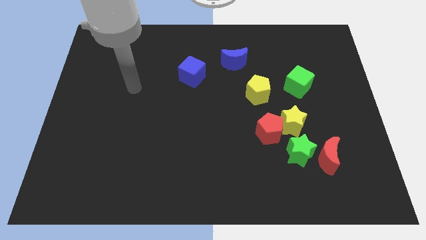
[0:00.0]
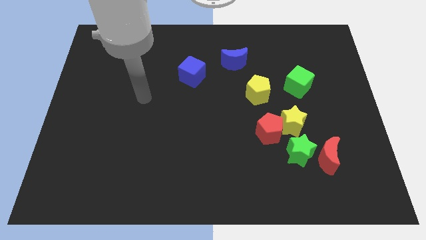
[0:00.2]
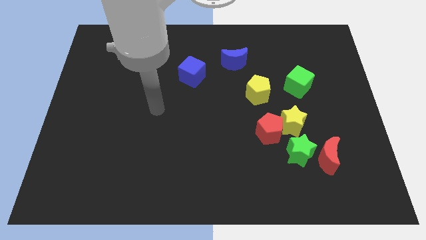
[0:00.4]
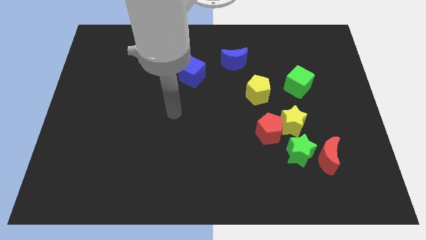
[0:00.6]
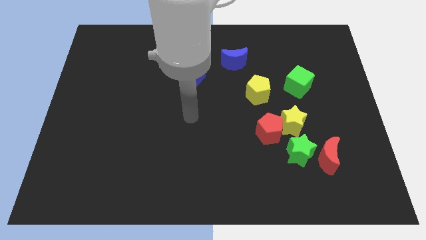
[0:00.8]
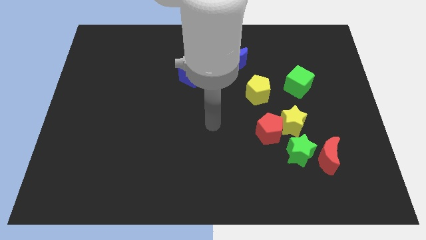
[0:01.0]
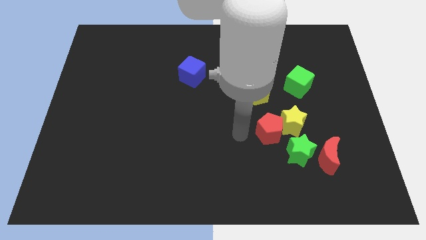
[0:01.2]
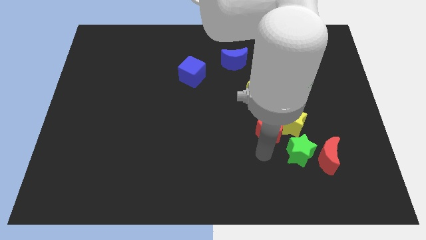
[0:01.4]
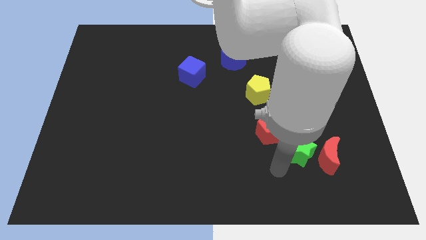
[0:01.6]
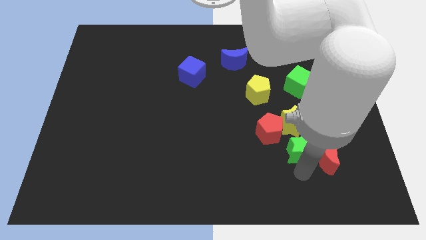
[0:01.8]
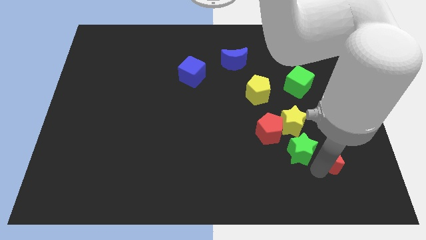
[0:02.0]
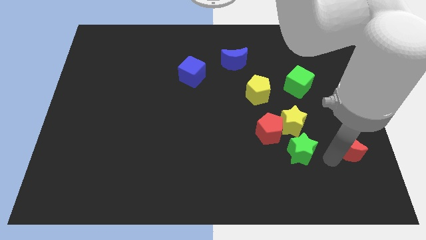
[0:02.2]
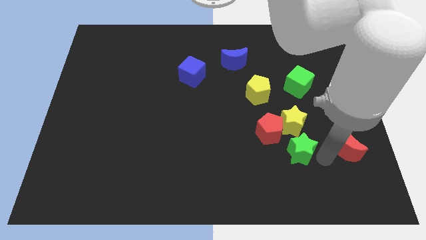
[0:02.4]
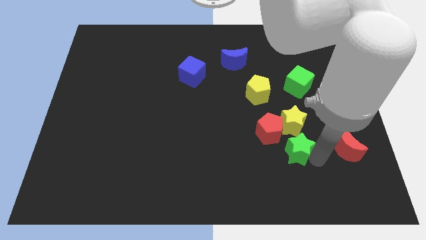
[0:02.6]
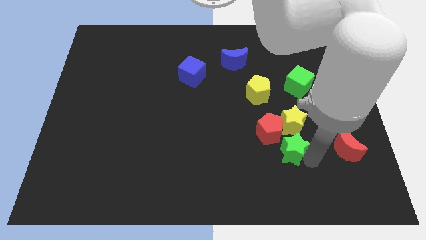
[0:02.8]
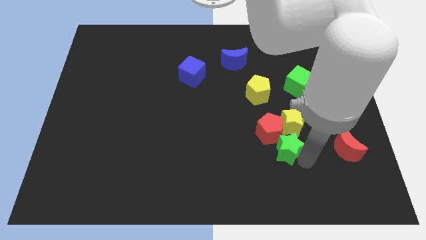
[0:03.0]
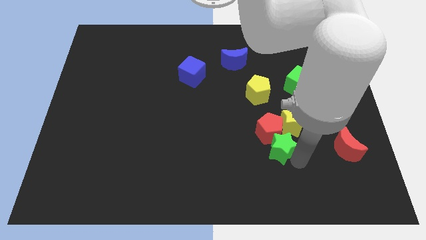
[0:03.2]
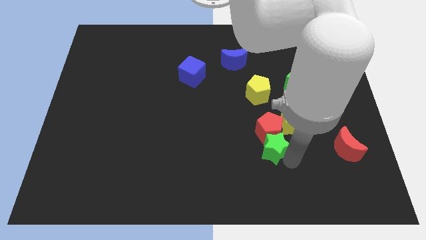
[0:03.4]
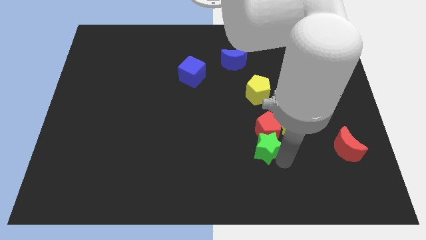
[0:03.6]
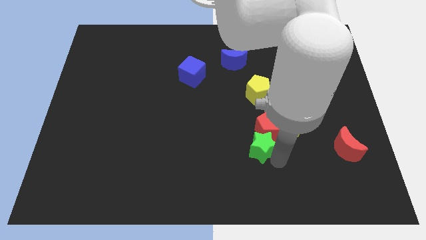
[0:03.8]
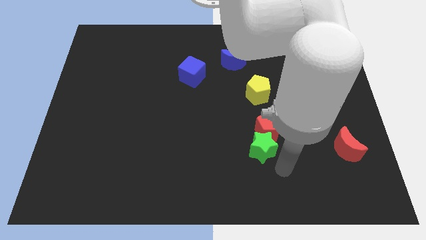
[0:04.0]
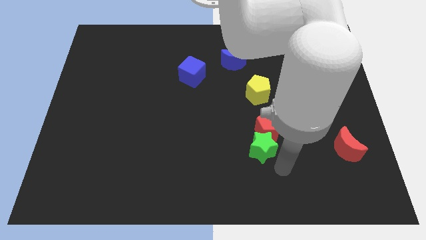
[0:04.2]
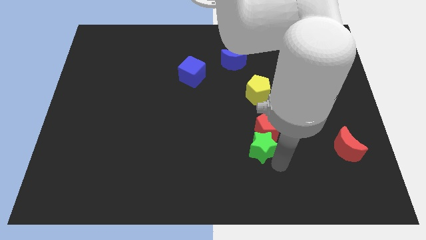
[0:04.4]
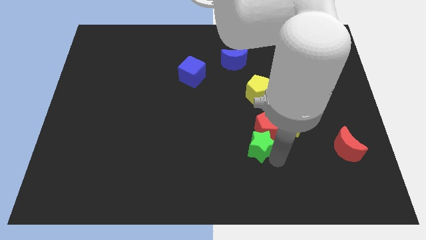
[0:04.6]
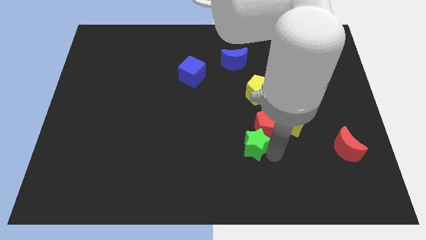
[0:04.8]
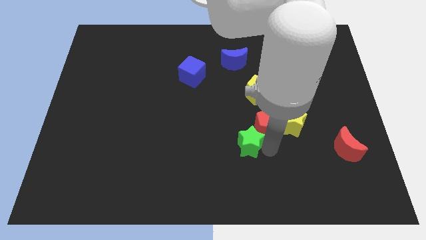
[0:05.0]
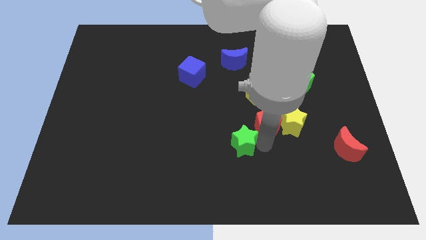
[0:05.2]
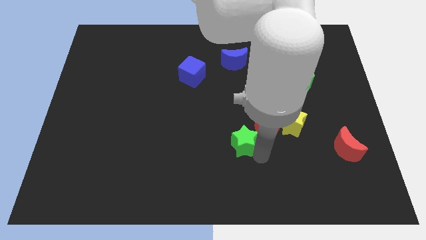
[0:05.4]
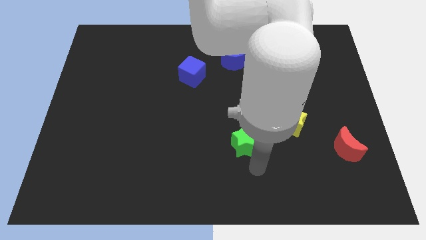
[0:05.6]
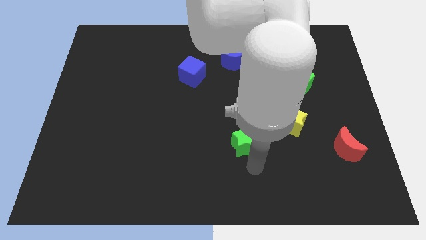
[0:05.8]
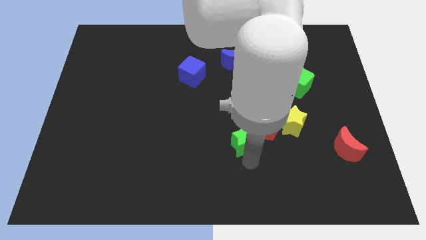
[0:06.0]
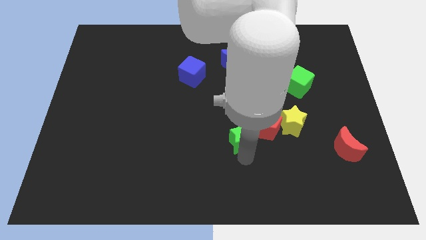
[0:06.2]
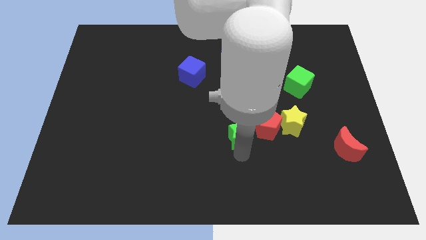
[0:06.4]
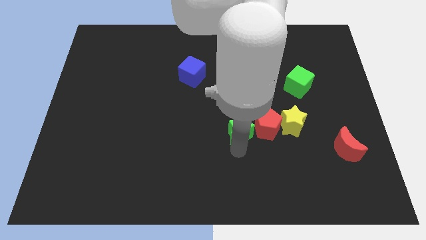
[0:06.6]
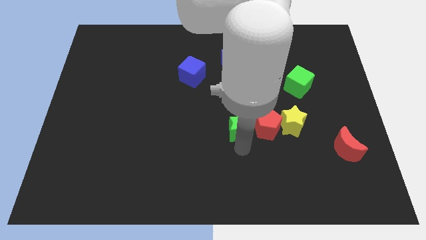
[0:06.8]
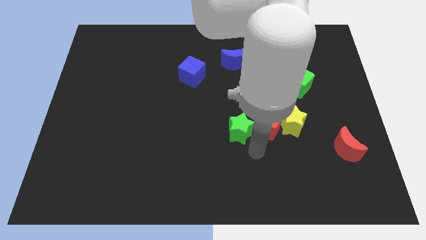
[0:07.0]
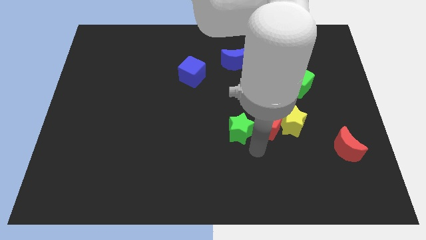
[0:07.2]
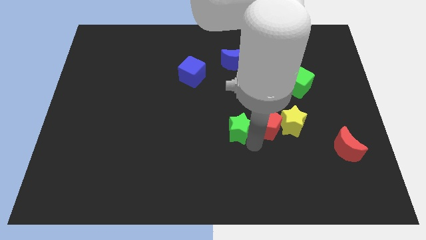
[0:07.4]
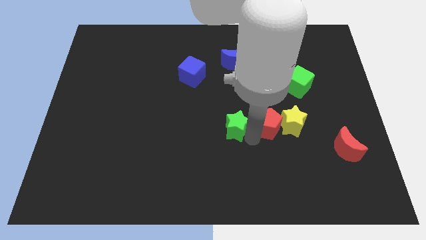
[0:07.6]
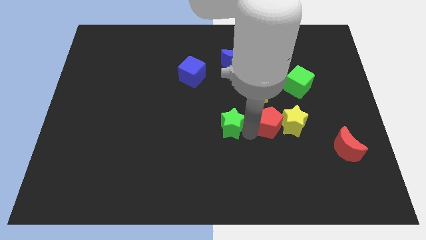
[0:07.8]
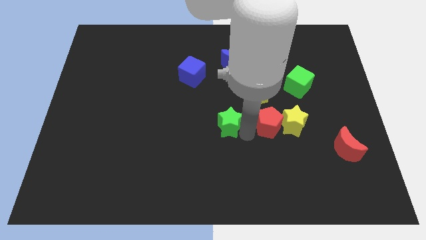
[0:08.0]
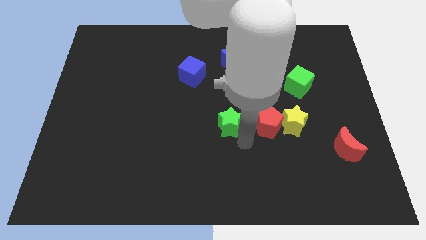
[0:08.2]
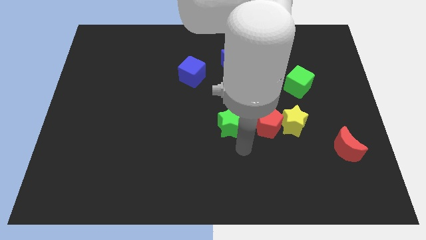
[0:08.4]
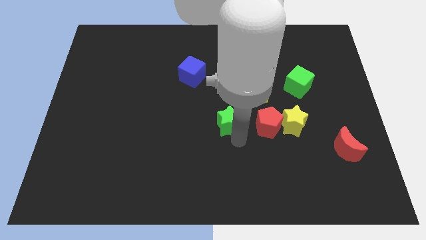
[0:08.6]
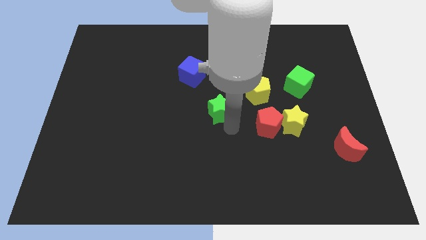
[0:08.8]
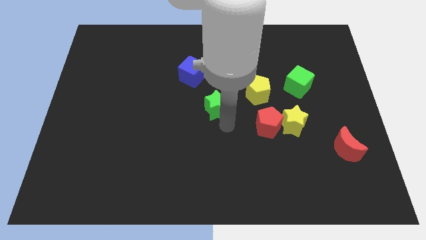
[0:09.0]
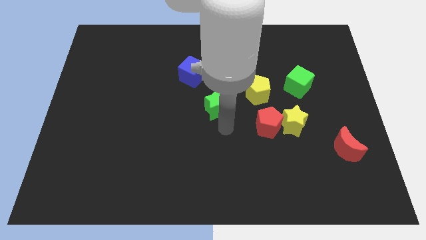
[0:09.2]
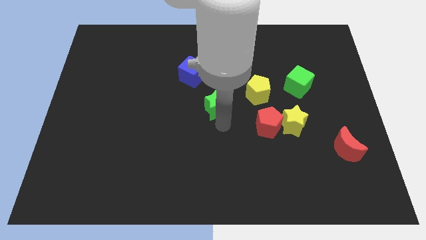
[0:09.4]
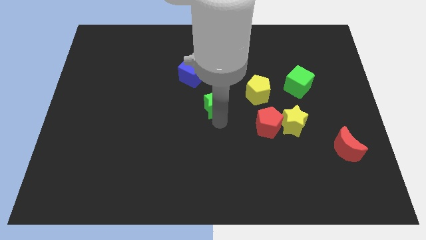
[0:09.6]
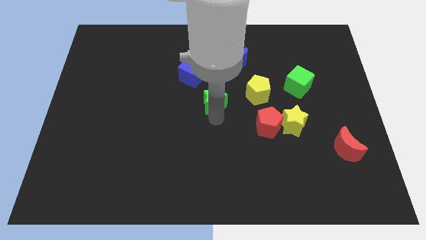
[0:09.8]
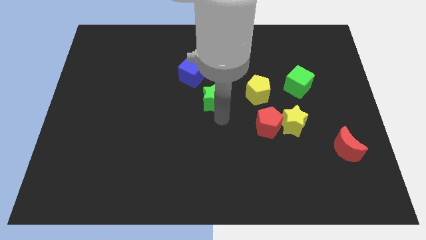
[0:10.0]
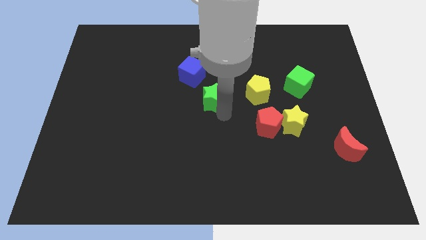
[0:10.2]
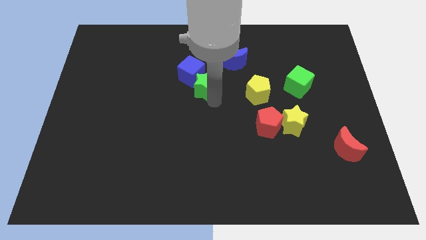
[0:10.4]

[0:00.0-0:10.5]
slide the green star next to the blue cube

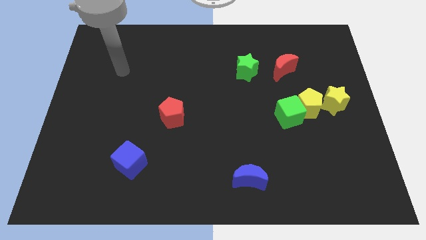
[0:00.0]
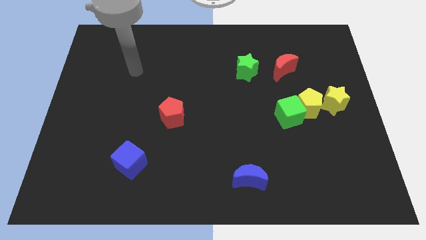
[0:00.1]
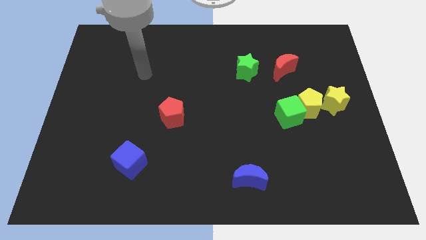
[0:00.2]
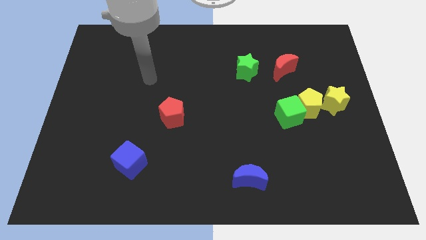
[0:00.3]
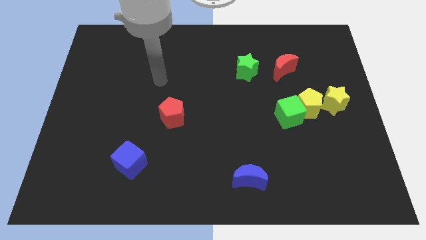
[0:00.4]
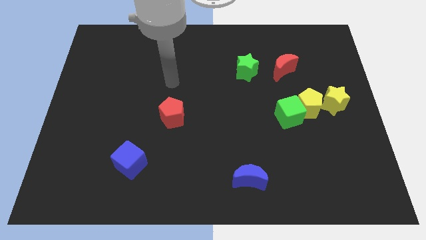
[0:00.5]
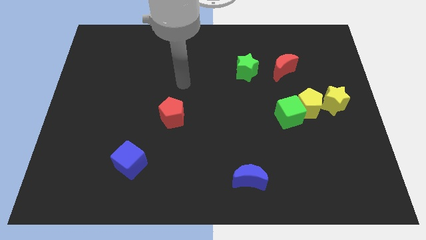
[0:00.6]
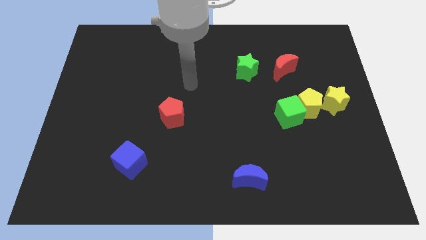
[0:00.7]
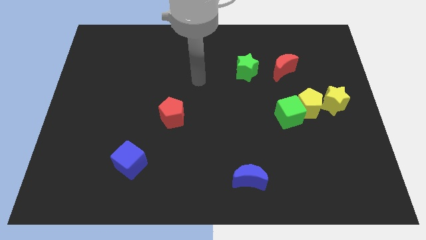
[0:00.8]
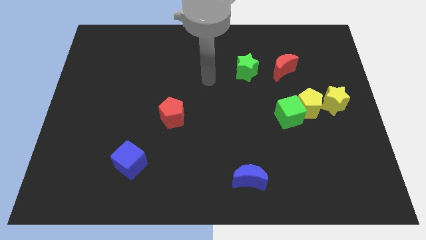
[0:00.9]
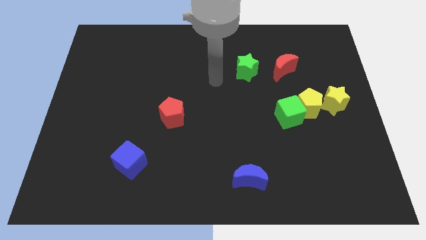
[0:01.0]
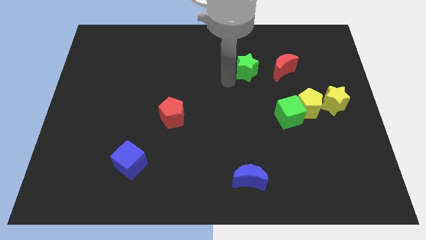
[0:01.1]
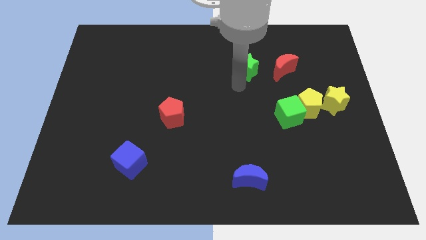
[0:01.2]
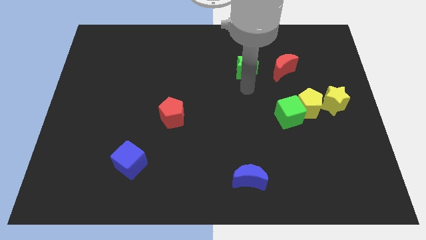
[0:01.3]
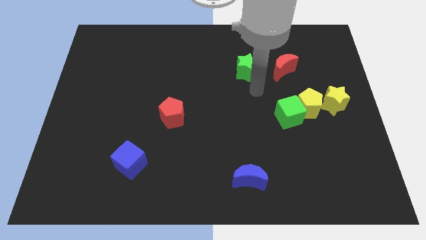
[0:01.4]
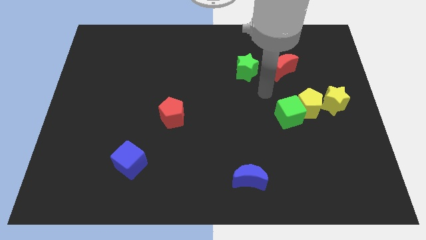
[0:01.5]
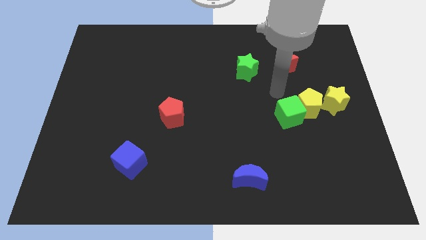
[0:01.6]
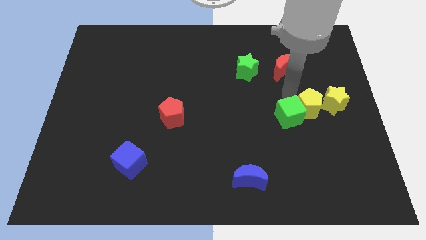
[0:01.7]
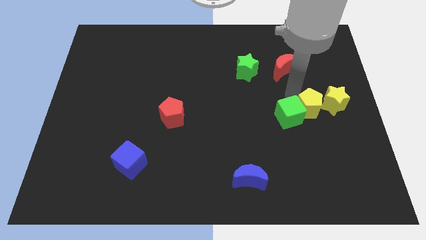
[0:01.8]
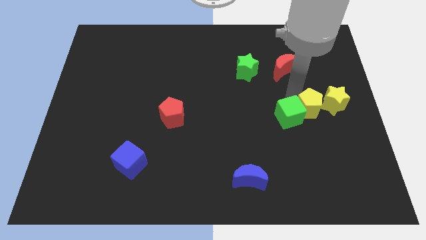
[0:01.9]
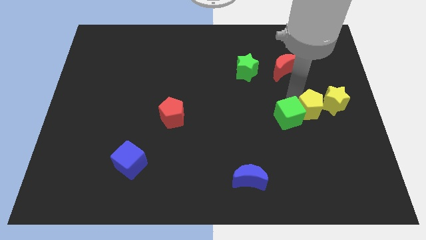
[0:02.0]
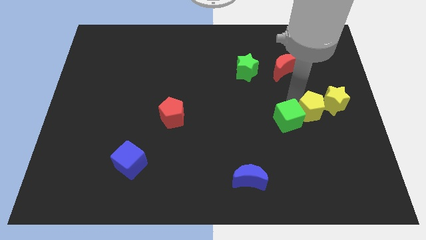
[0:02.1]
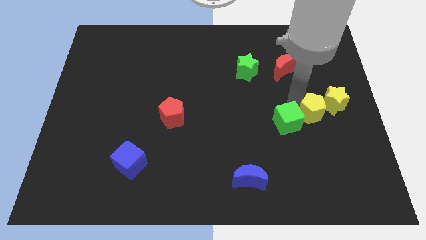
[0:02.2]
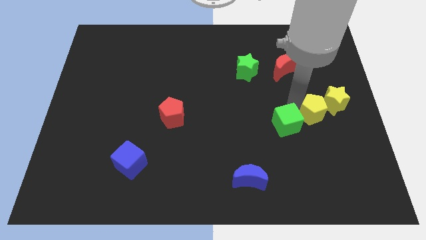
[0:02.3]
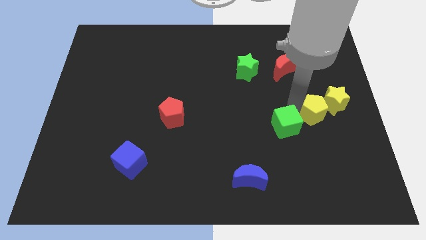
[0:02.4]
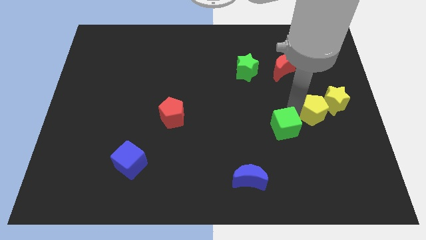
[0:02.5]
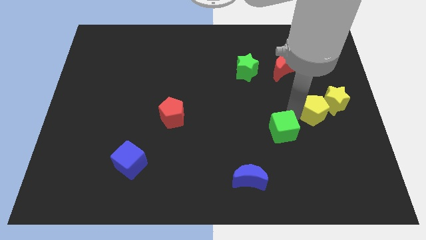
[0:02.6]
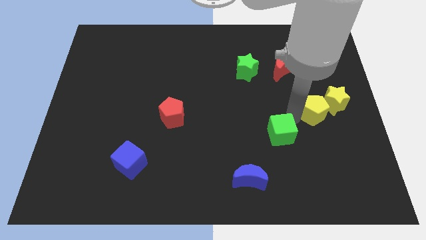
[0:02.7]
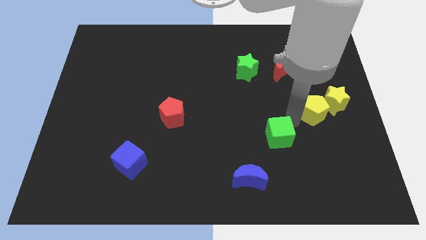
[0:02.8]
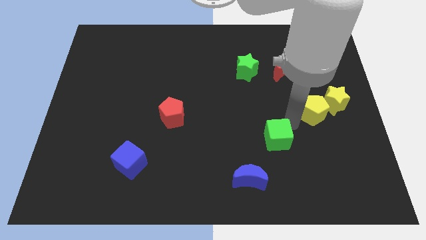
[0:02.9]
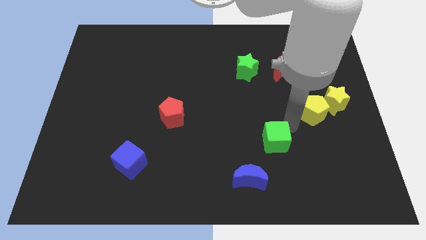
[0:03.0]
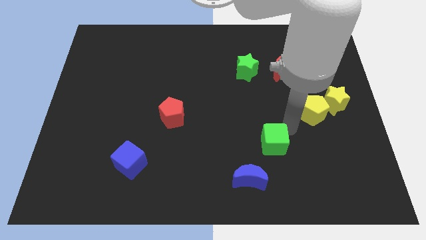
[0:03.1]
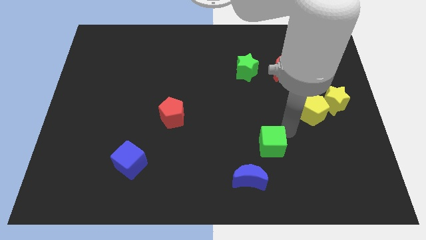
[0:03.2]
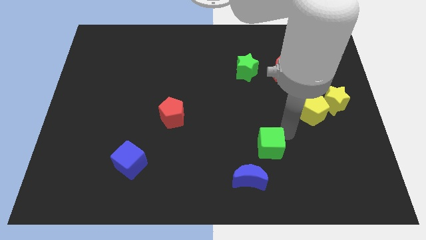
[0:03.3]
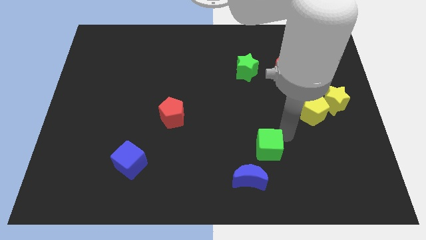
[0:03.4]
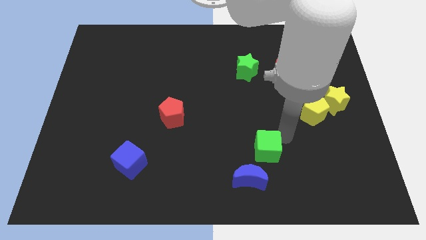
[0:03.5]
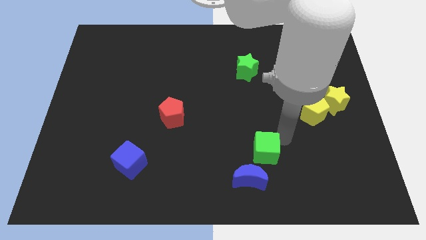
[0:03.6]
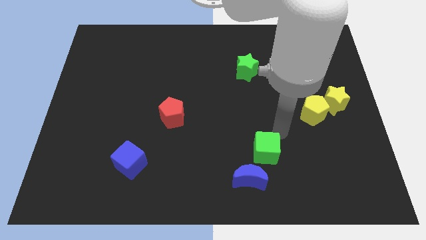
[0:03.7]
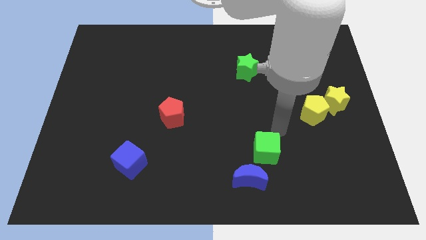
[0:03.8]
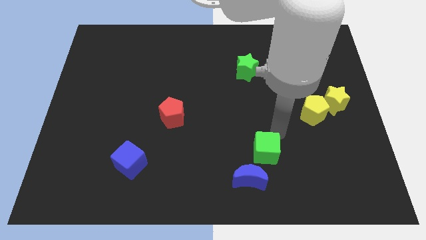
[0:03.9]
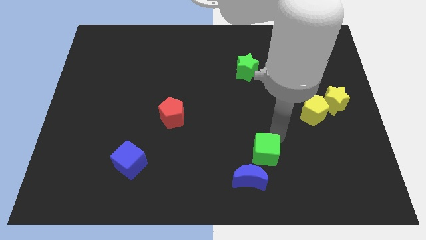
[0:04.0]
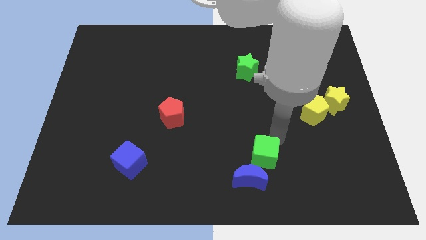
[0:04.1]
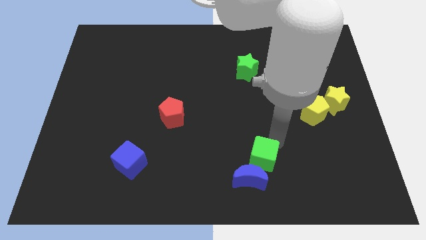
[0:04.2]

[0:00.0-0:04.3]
push the green cube to the blue moon
